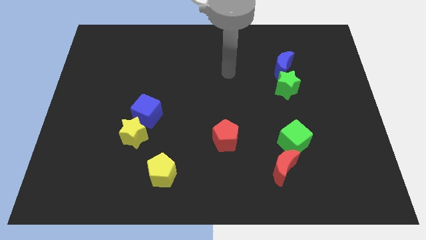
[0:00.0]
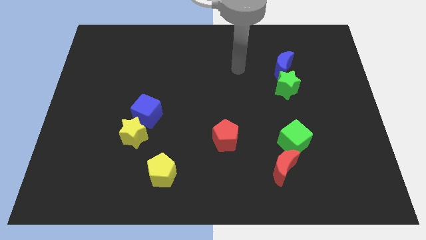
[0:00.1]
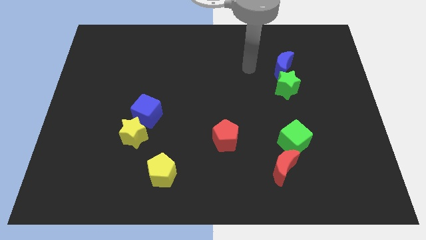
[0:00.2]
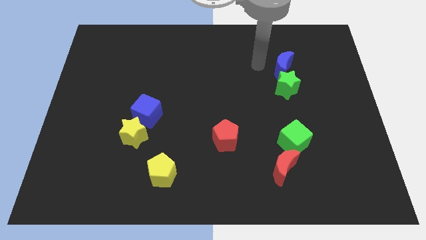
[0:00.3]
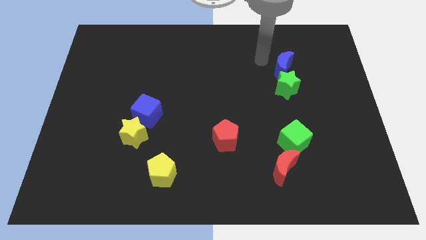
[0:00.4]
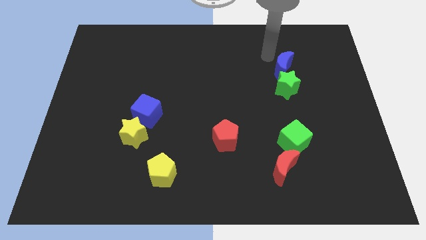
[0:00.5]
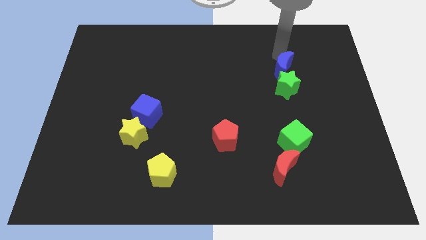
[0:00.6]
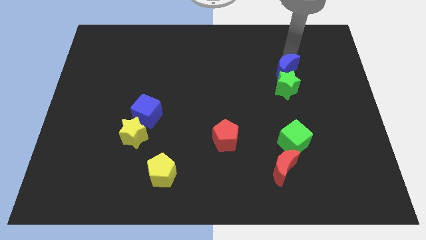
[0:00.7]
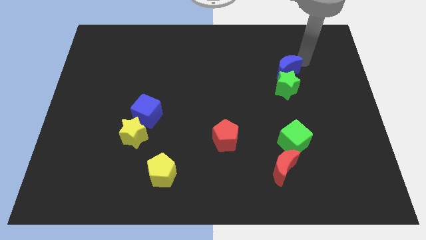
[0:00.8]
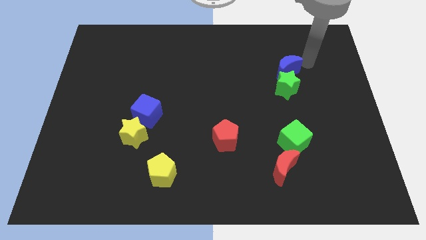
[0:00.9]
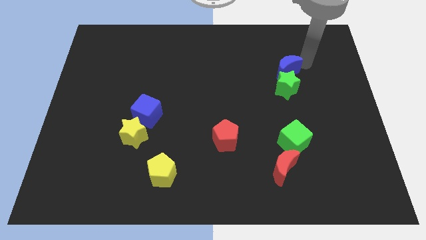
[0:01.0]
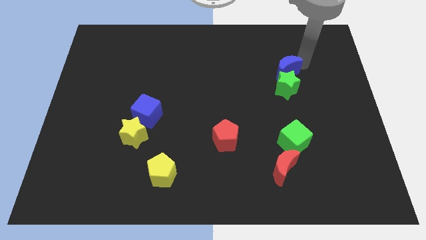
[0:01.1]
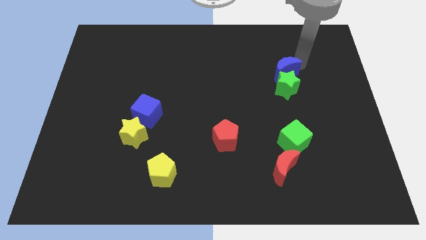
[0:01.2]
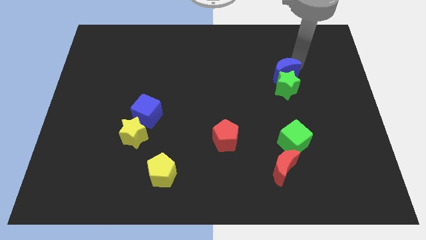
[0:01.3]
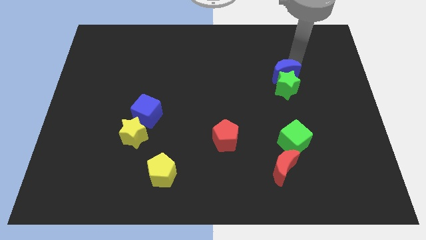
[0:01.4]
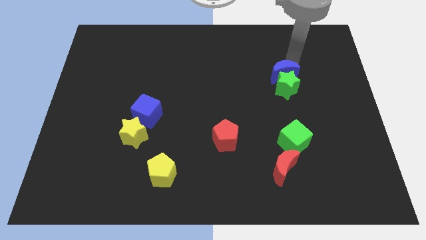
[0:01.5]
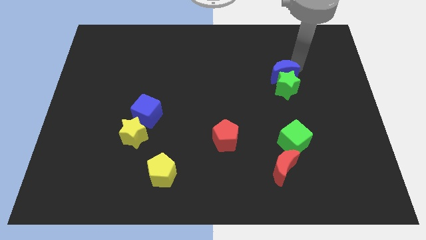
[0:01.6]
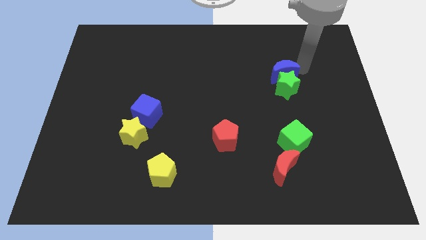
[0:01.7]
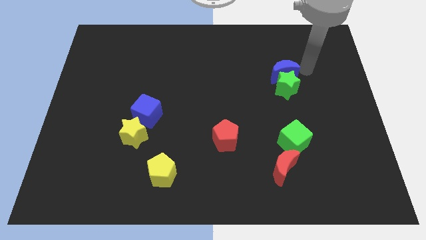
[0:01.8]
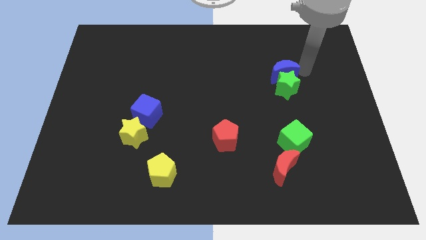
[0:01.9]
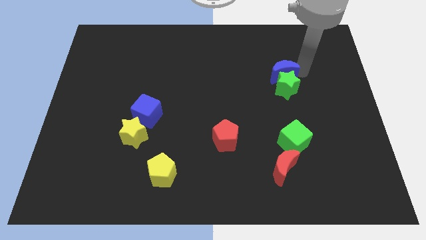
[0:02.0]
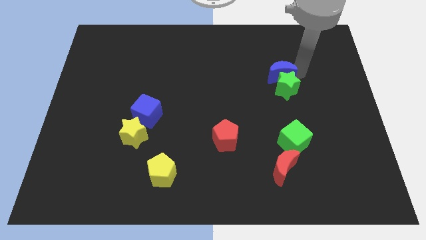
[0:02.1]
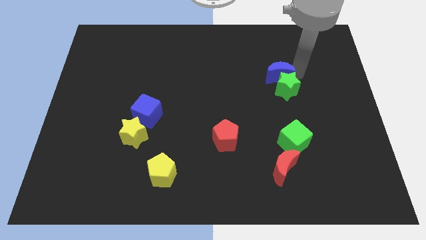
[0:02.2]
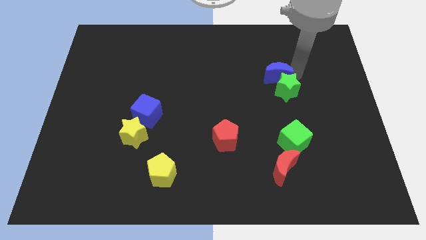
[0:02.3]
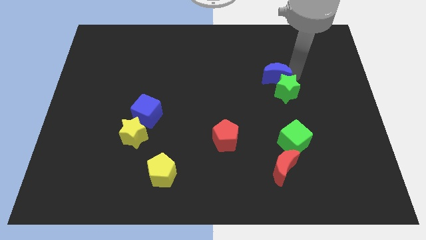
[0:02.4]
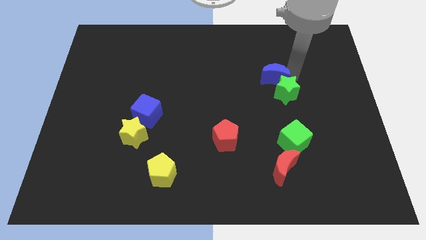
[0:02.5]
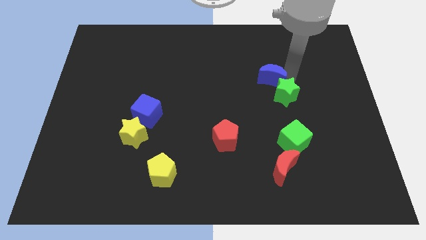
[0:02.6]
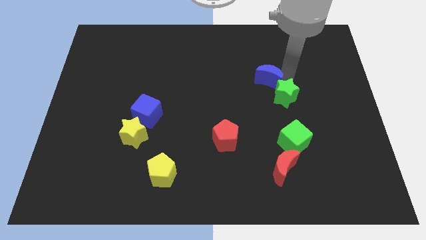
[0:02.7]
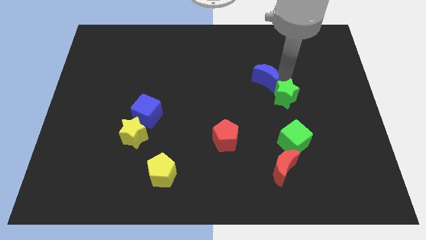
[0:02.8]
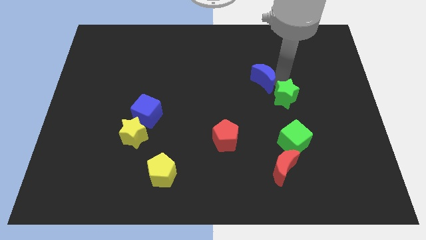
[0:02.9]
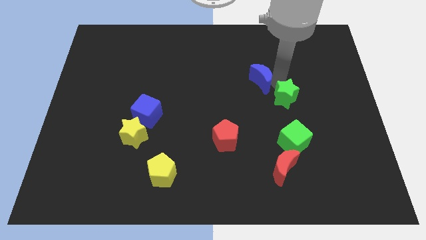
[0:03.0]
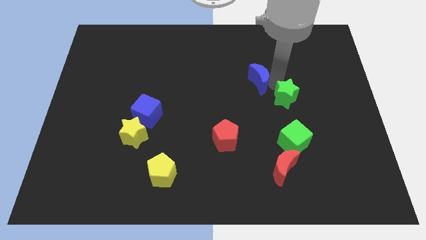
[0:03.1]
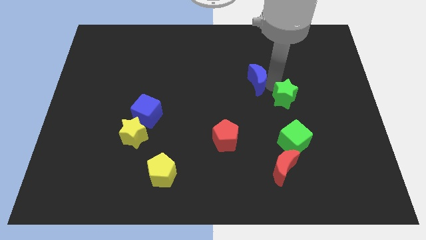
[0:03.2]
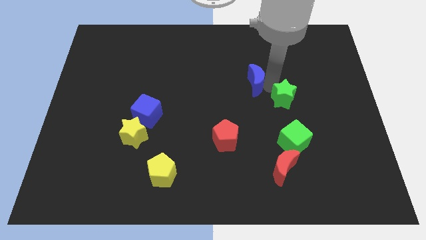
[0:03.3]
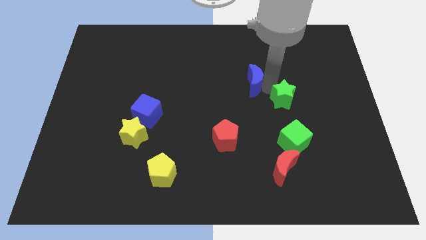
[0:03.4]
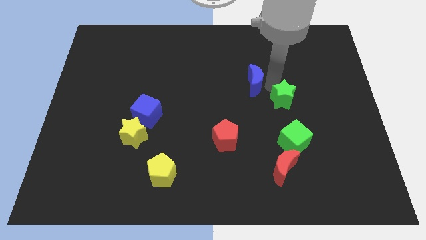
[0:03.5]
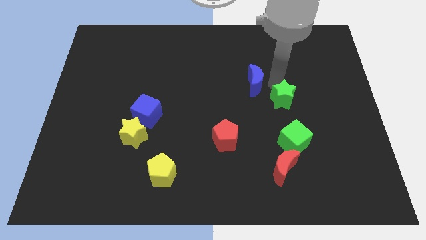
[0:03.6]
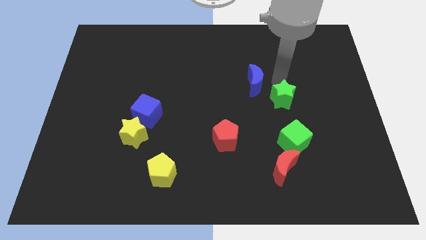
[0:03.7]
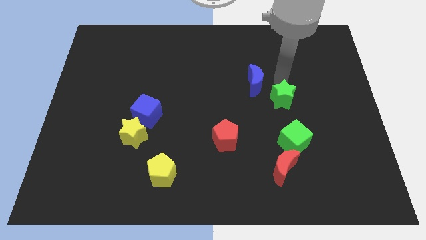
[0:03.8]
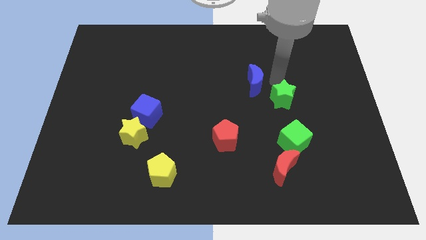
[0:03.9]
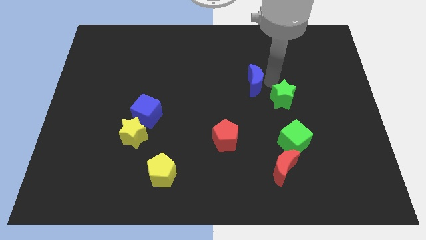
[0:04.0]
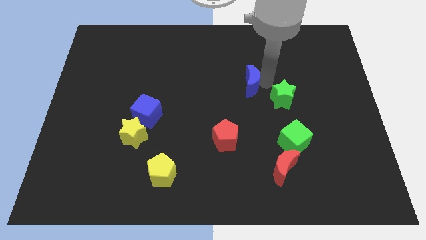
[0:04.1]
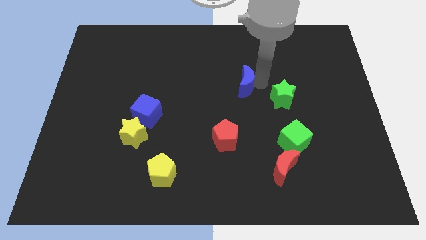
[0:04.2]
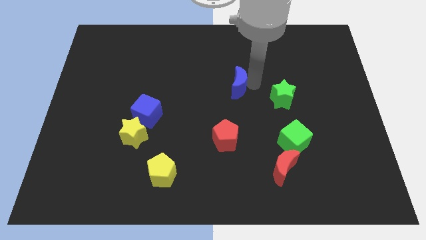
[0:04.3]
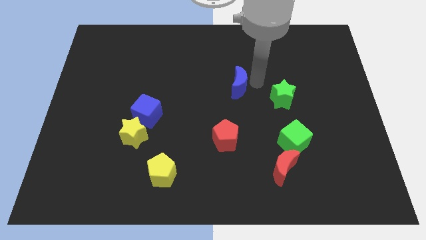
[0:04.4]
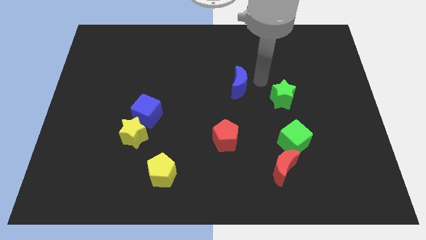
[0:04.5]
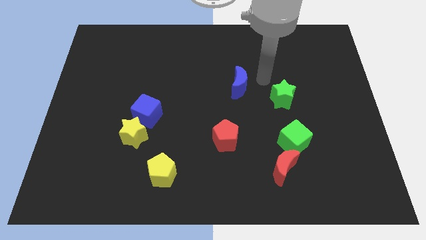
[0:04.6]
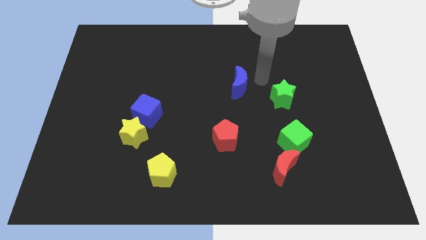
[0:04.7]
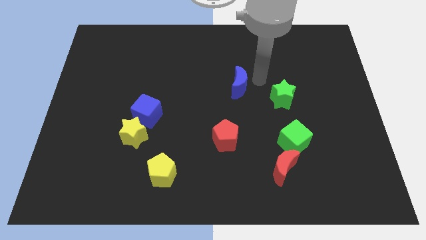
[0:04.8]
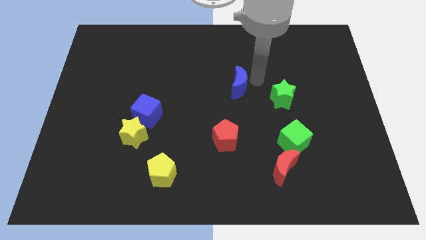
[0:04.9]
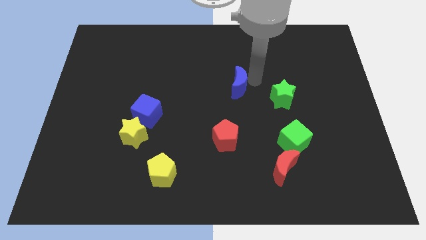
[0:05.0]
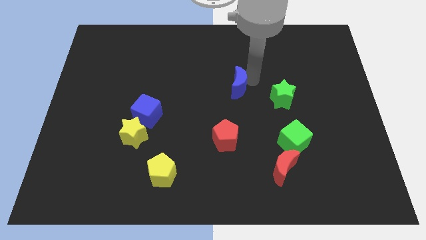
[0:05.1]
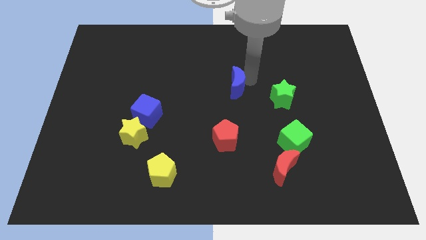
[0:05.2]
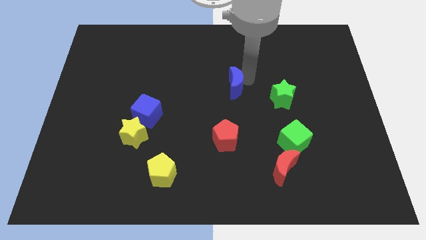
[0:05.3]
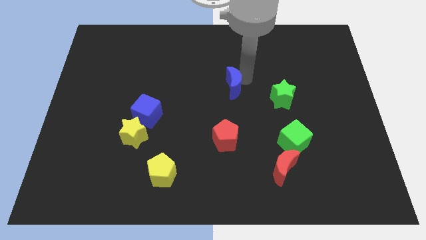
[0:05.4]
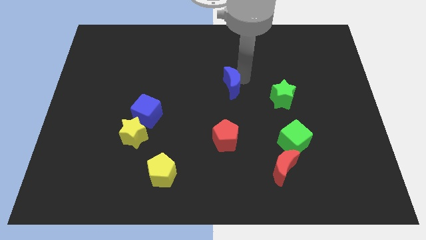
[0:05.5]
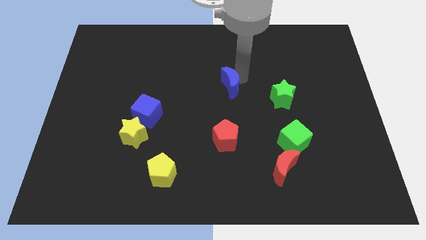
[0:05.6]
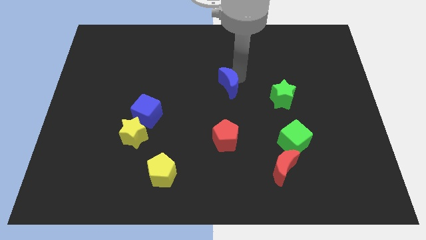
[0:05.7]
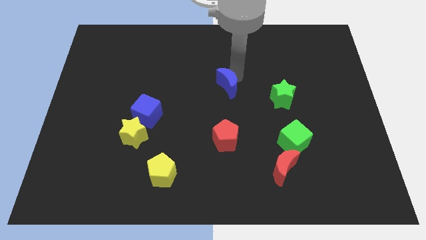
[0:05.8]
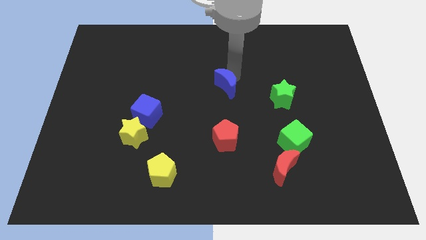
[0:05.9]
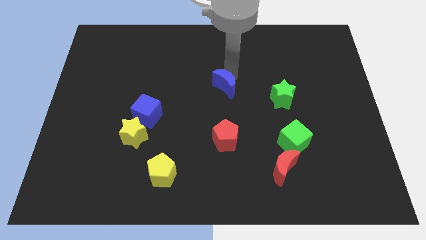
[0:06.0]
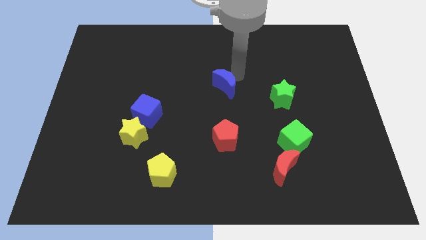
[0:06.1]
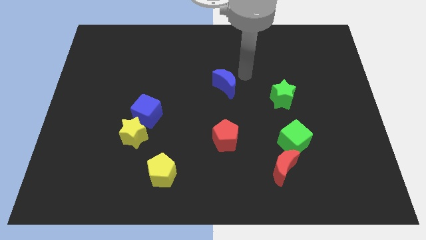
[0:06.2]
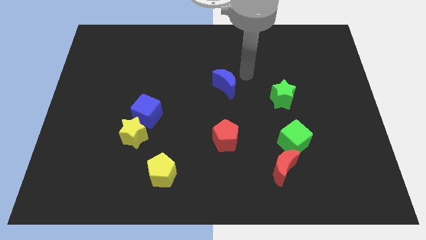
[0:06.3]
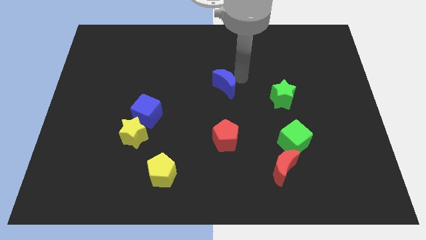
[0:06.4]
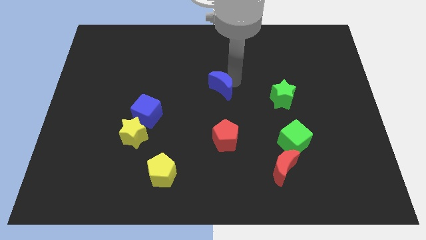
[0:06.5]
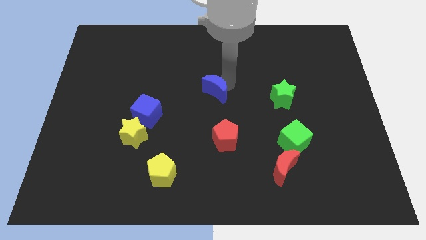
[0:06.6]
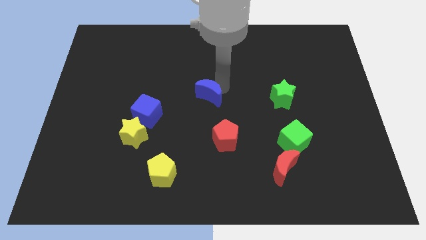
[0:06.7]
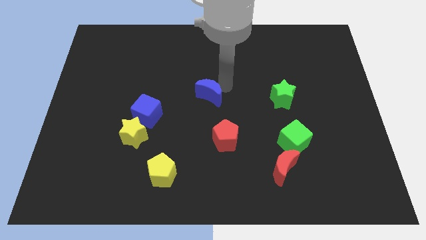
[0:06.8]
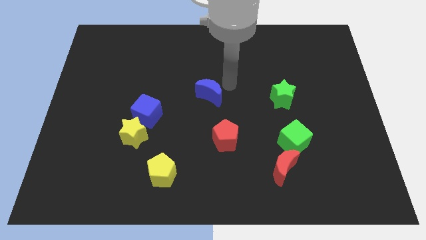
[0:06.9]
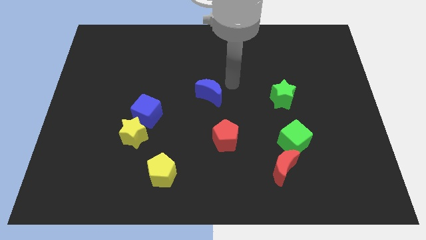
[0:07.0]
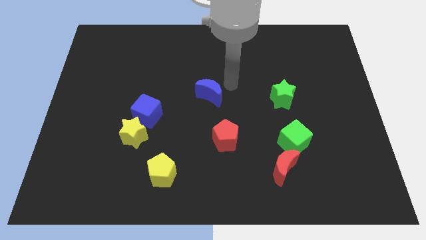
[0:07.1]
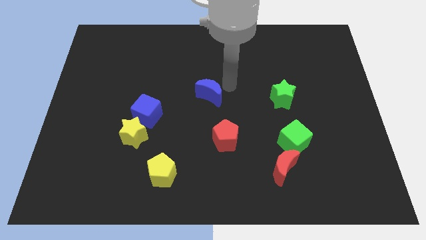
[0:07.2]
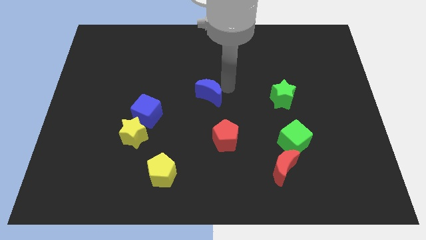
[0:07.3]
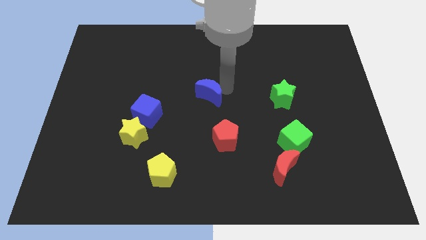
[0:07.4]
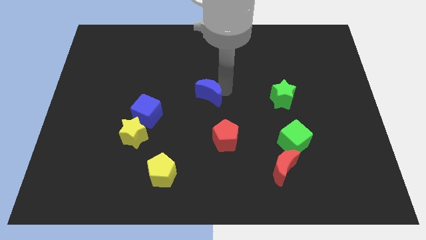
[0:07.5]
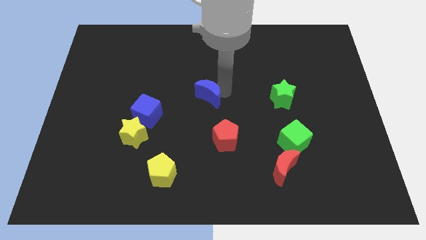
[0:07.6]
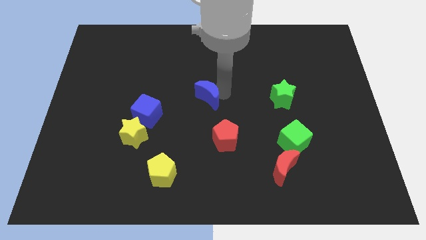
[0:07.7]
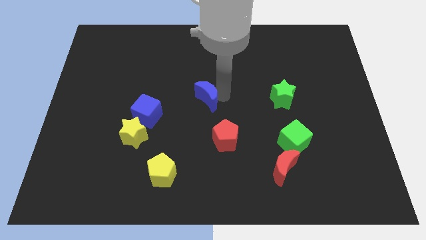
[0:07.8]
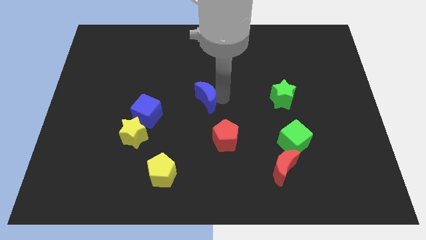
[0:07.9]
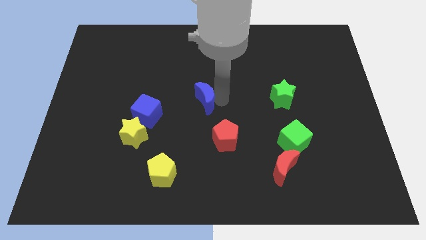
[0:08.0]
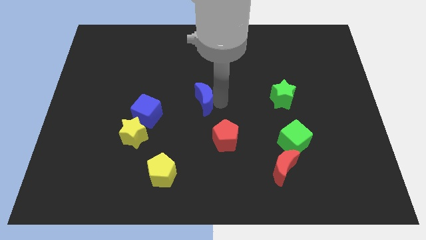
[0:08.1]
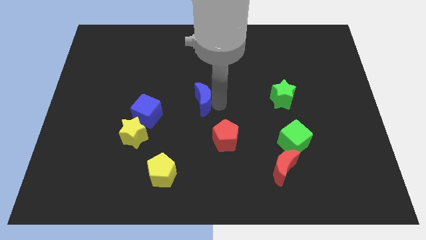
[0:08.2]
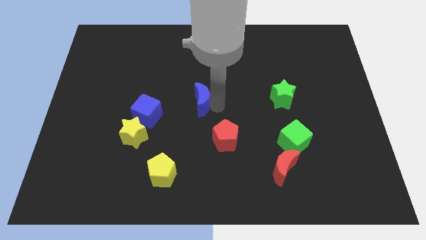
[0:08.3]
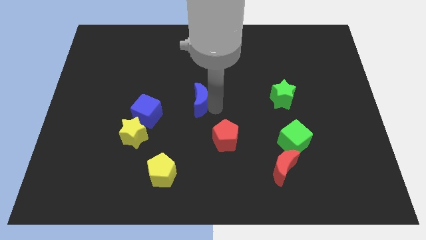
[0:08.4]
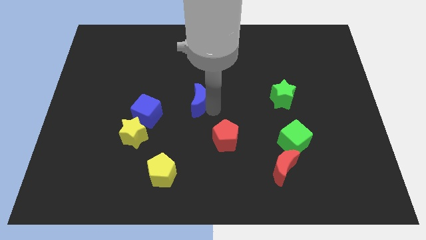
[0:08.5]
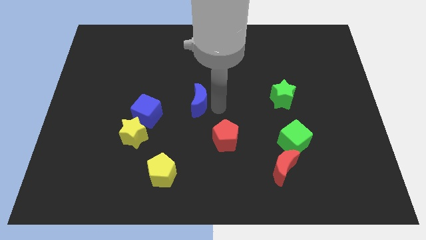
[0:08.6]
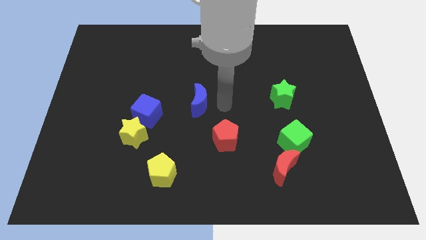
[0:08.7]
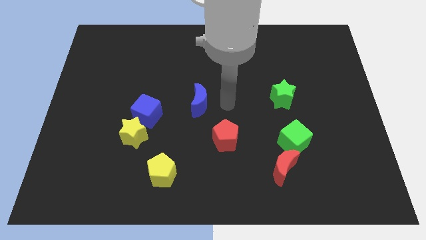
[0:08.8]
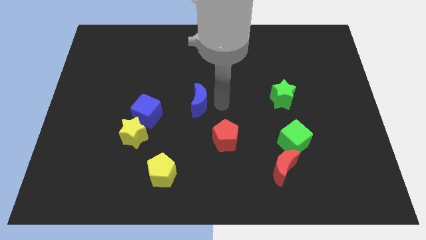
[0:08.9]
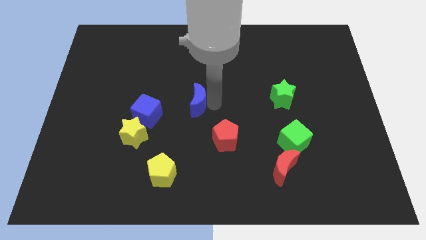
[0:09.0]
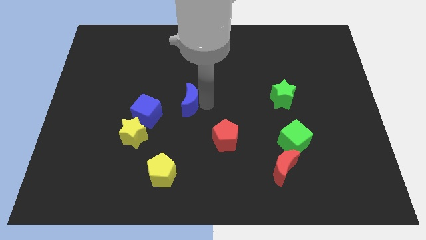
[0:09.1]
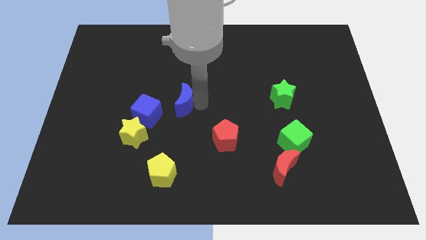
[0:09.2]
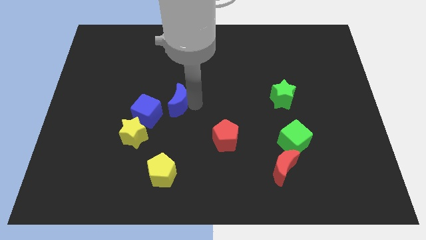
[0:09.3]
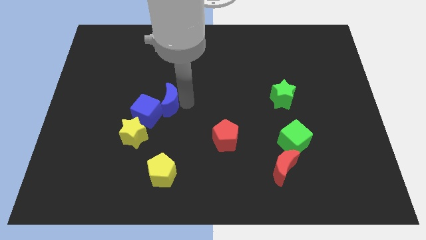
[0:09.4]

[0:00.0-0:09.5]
put the blue moon to the blue cube
